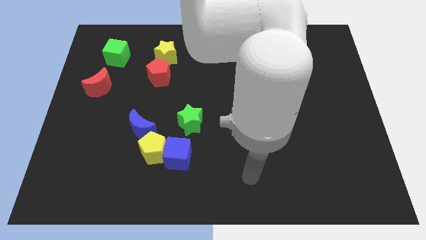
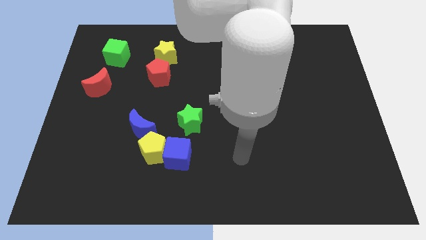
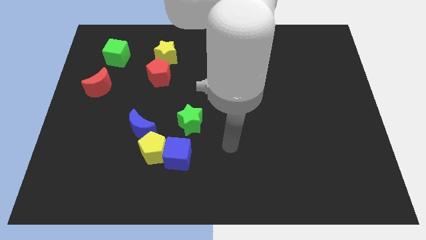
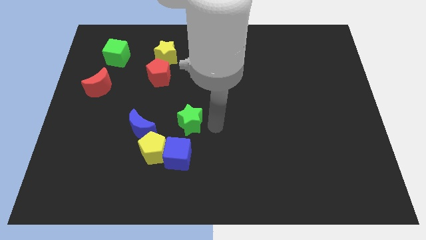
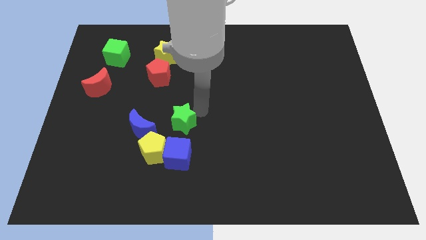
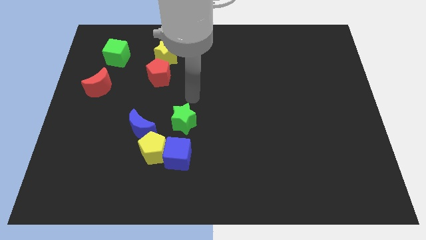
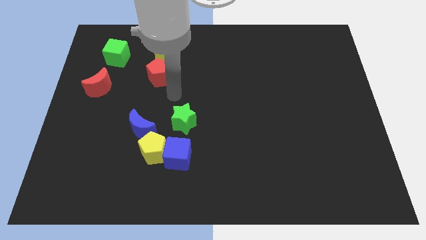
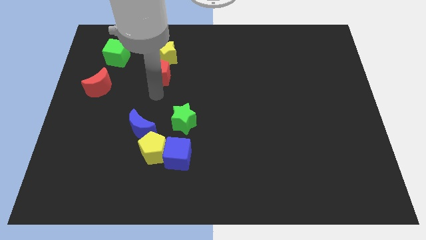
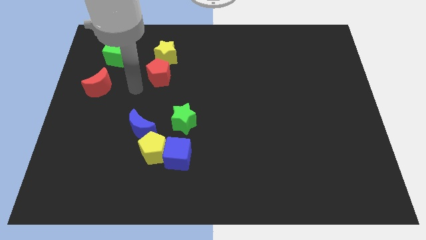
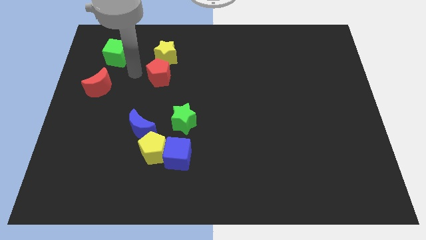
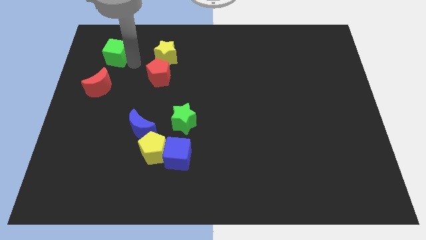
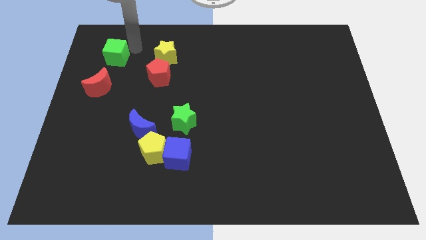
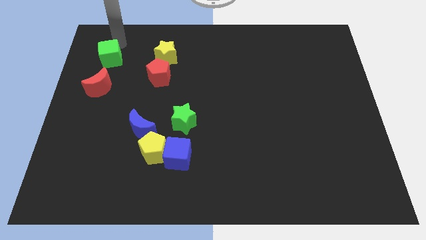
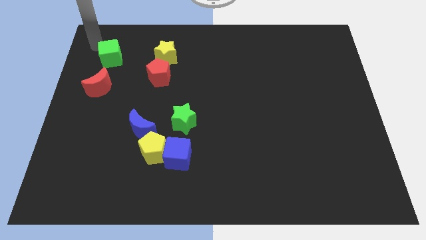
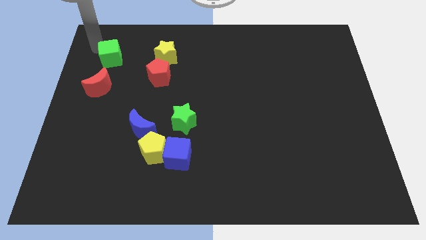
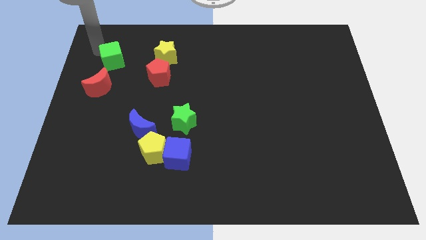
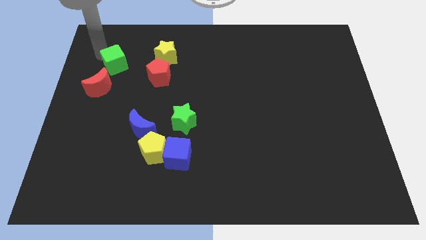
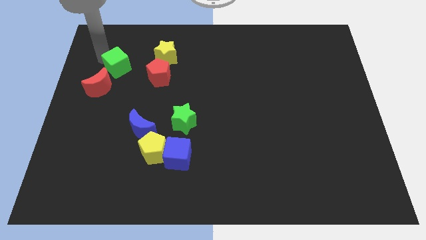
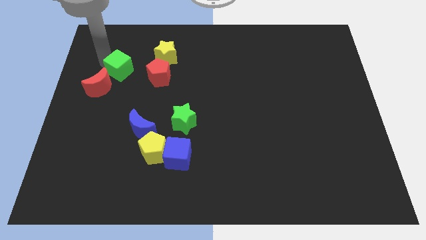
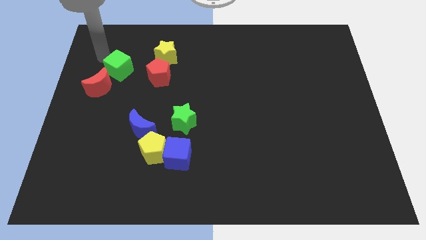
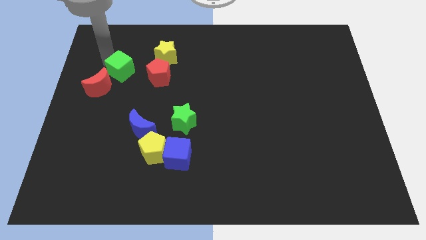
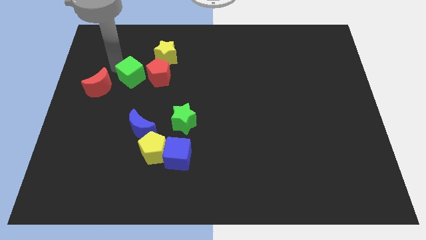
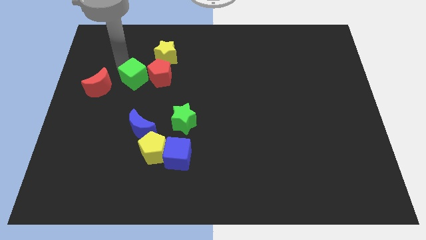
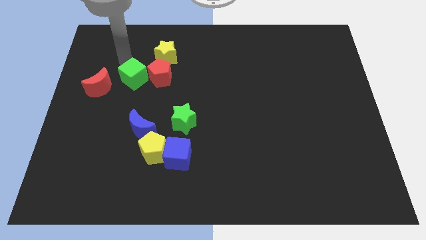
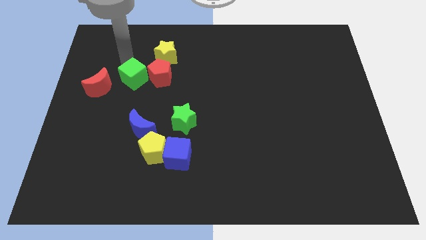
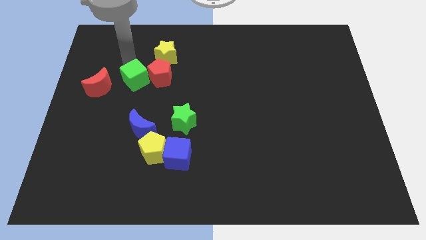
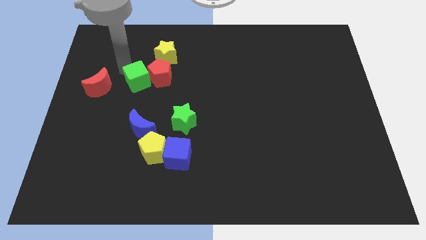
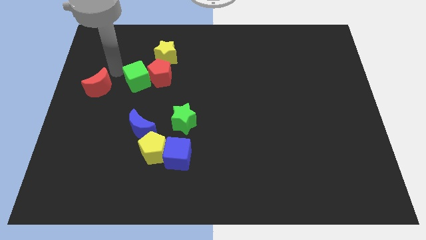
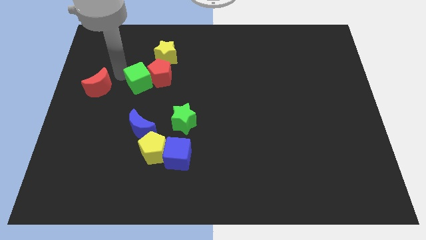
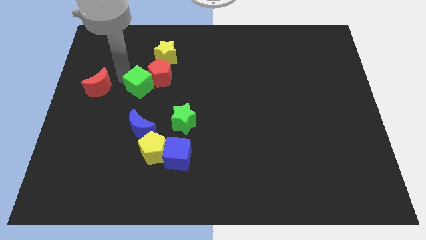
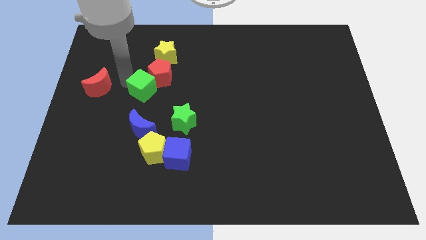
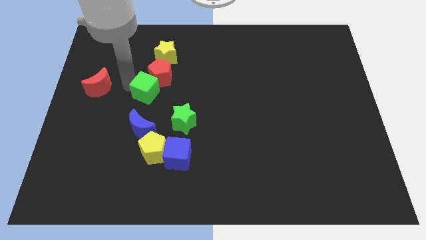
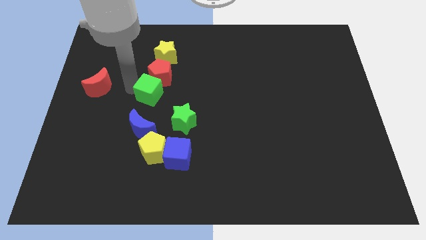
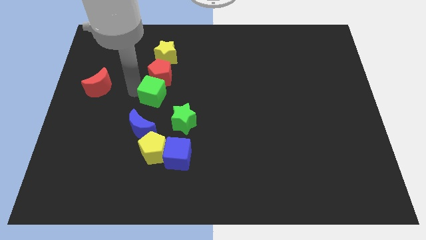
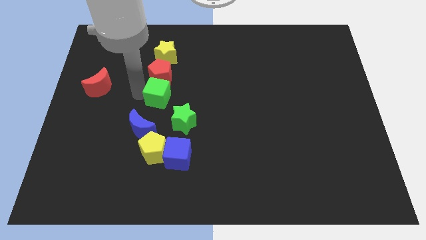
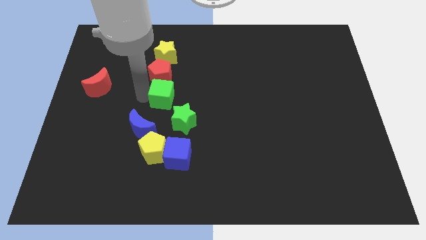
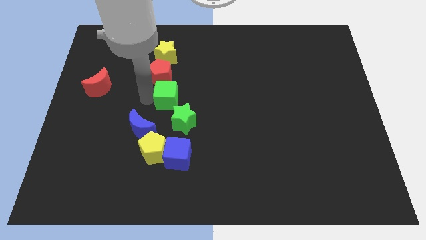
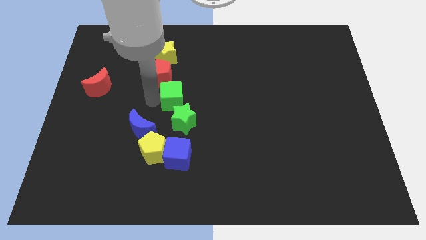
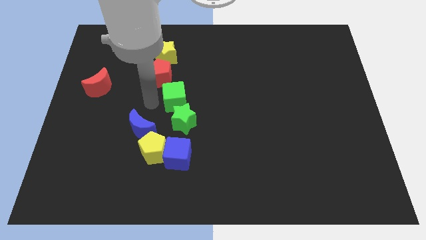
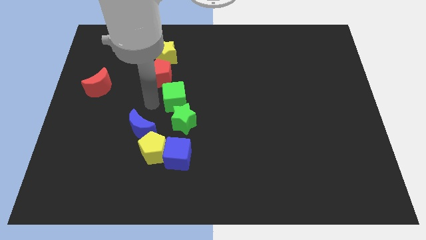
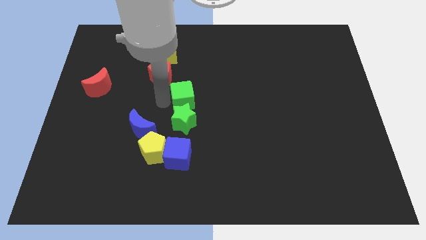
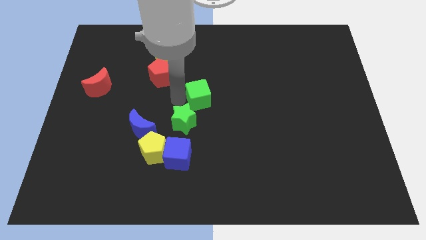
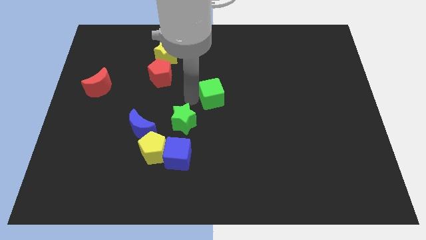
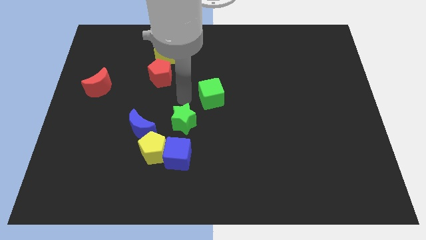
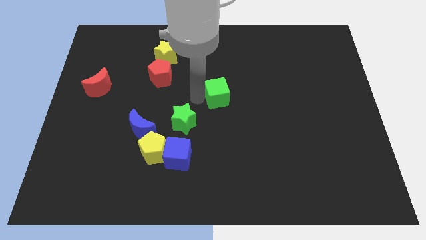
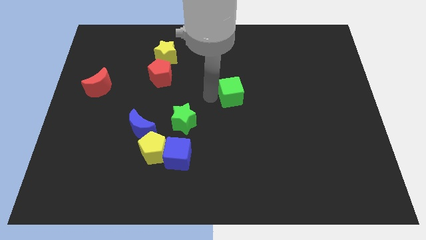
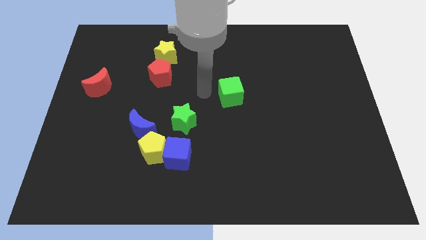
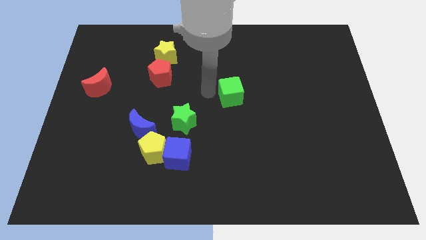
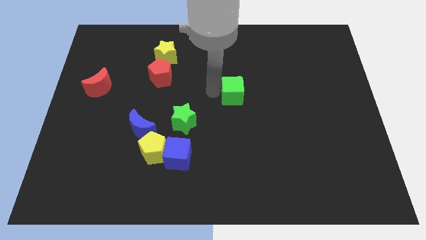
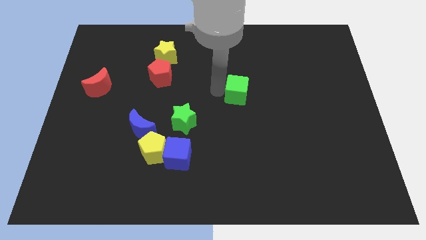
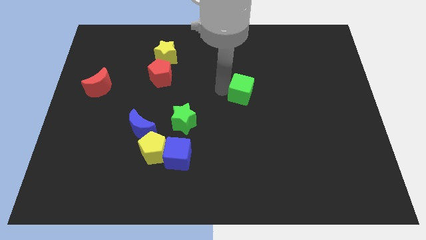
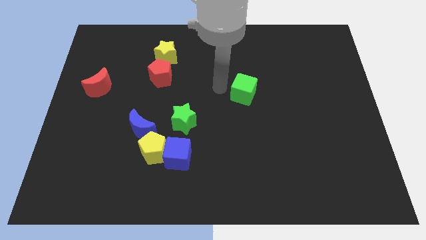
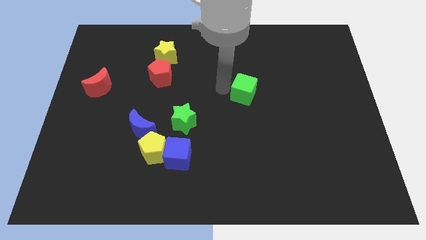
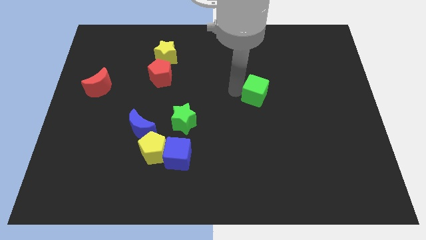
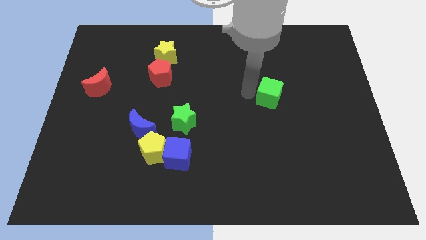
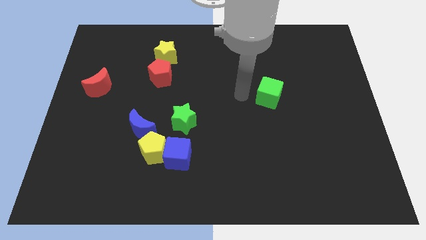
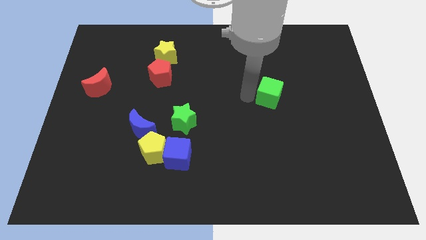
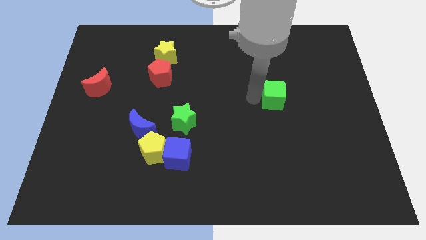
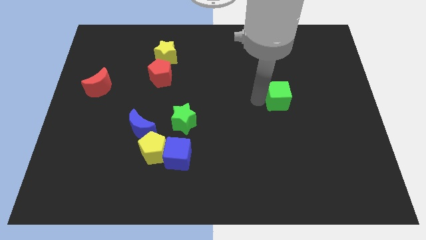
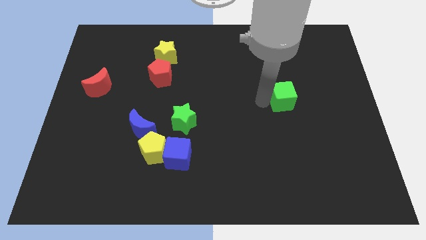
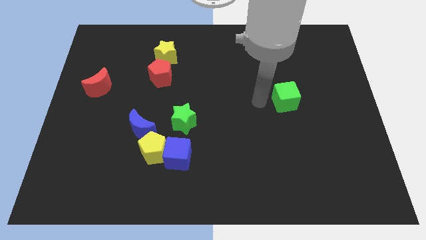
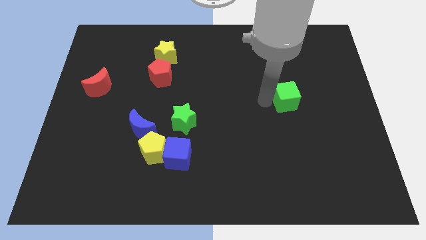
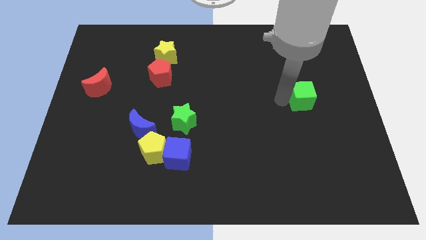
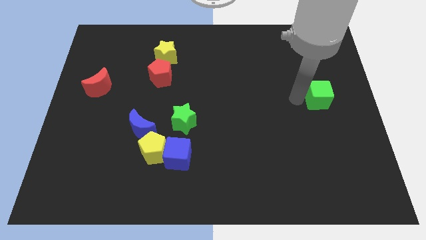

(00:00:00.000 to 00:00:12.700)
push the green cube to the right side

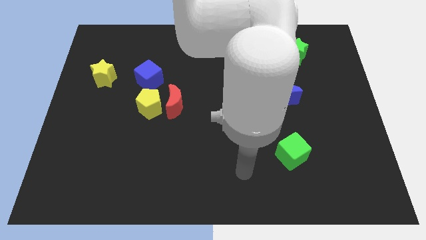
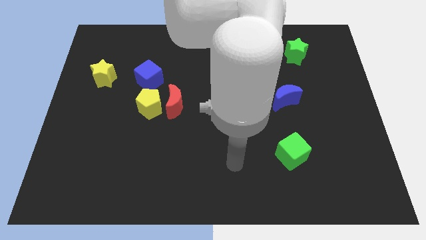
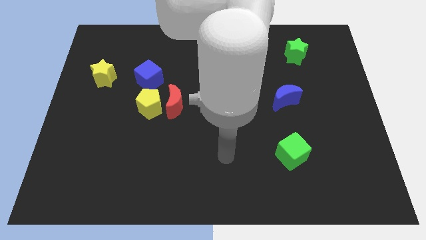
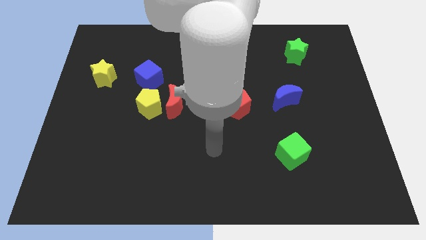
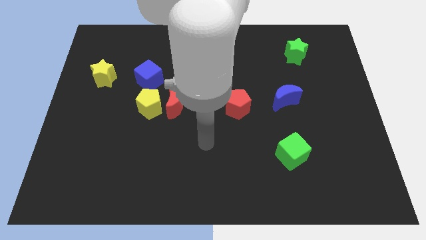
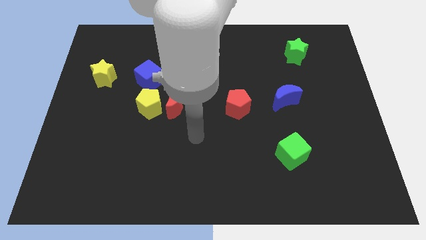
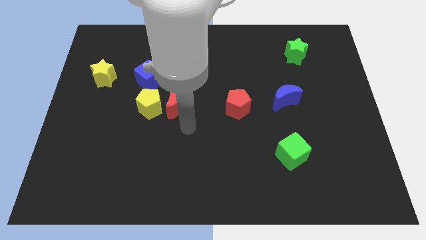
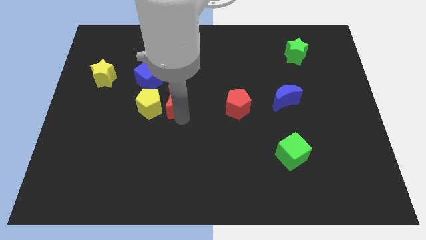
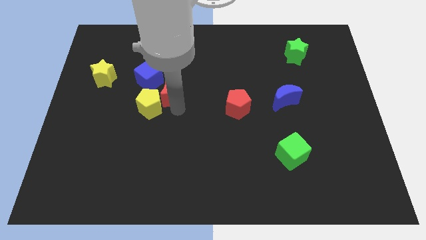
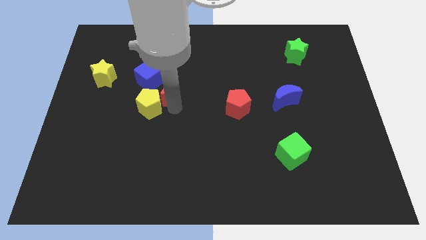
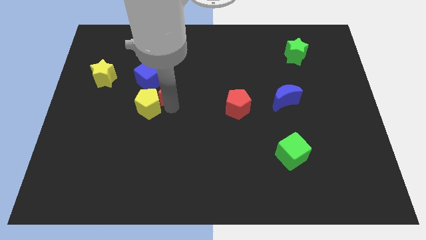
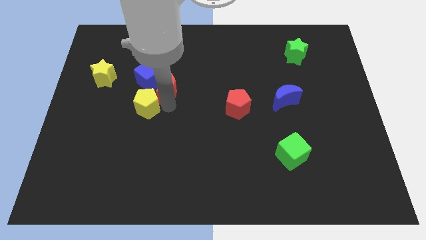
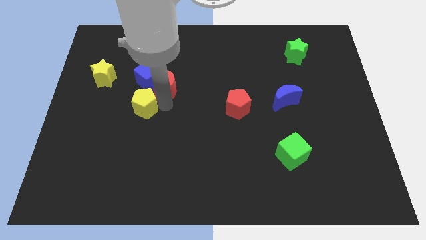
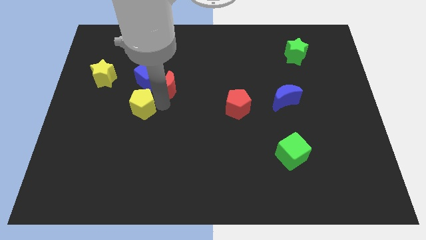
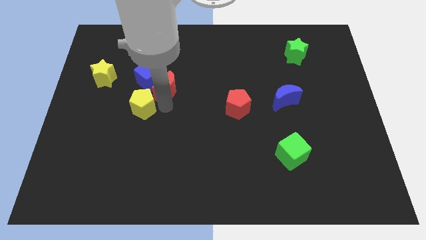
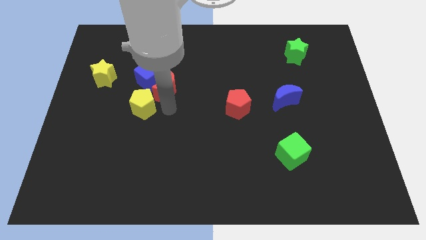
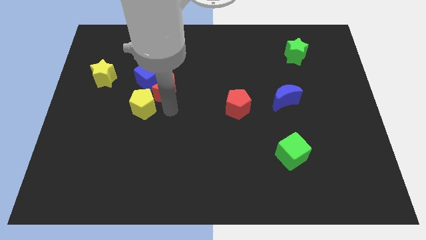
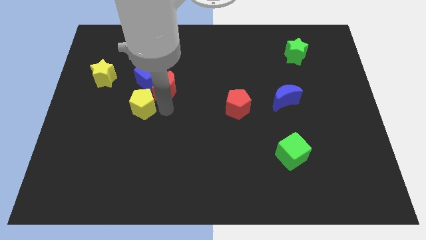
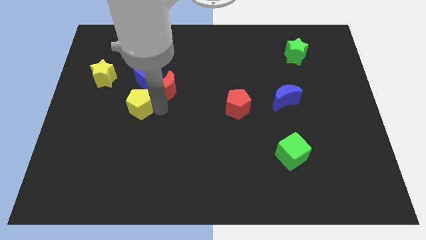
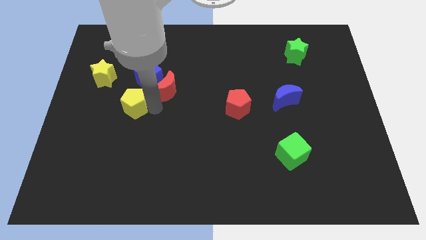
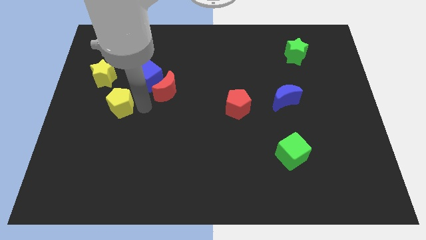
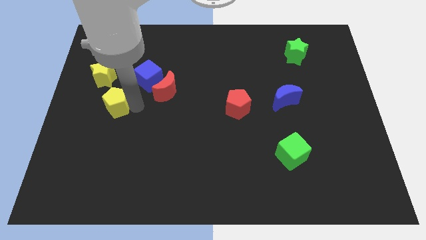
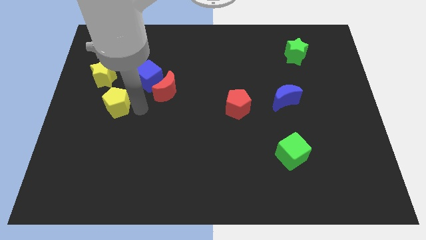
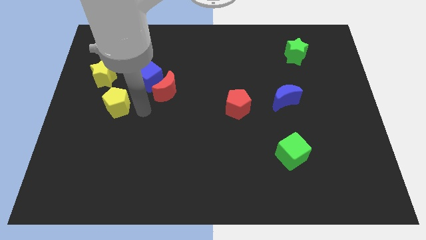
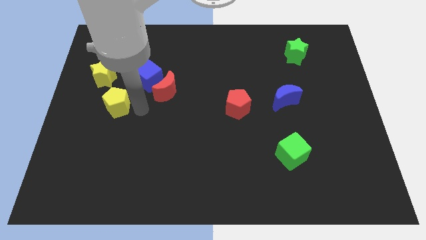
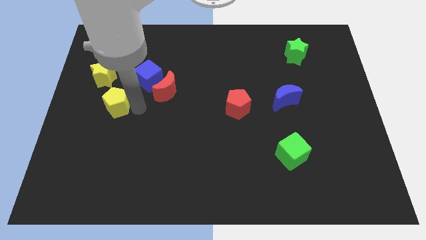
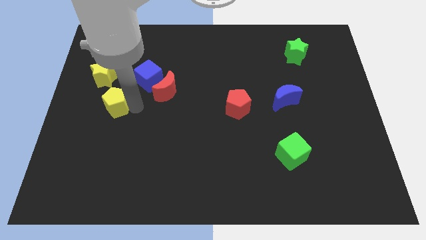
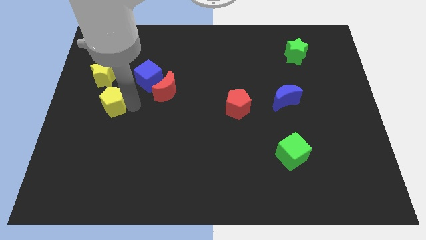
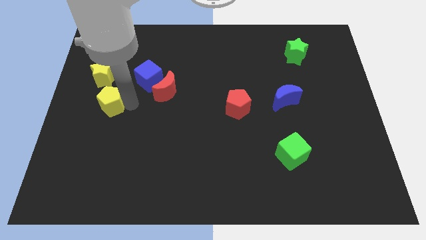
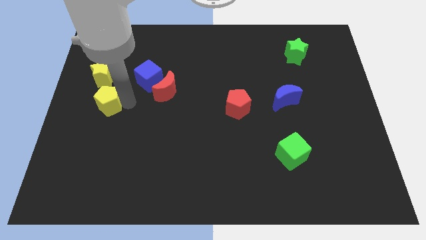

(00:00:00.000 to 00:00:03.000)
move the yellow pentagon to the left side of the board
